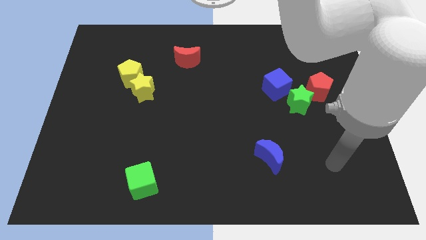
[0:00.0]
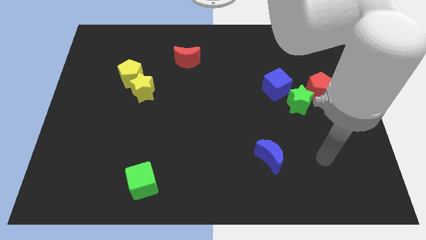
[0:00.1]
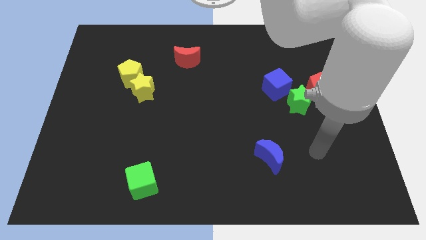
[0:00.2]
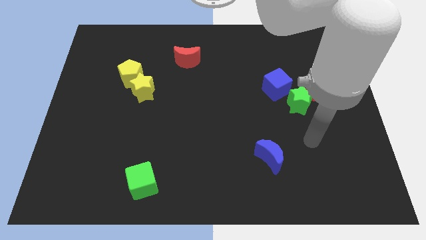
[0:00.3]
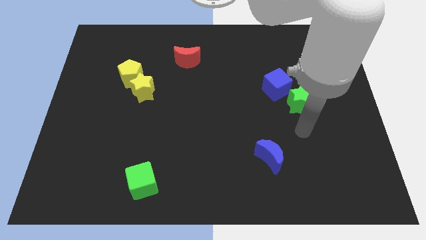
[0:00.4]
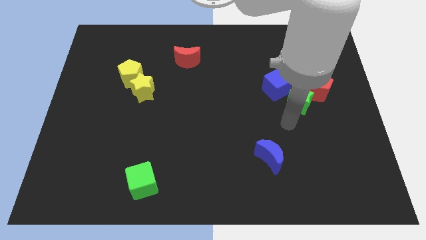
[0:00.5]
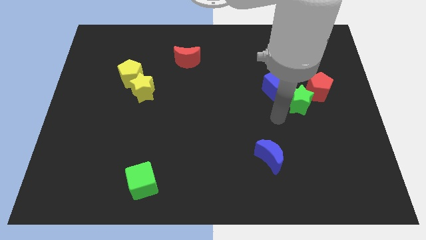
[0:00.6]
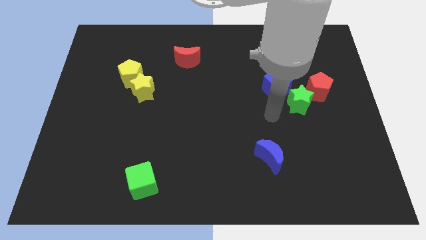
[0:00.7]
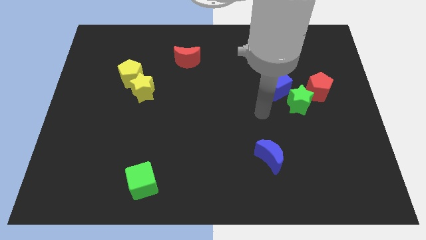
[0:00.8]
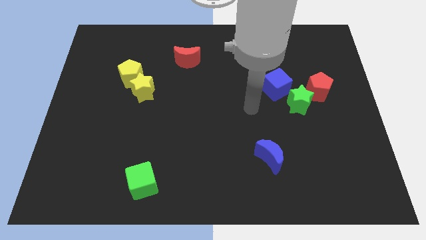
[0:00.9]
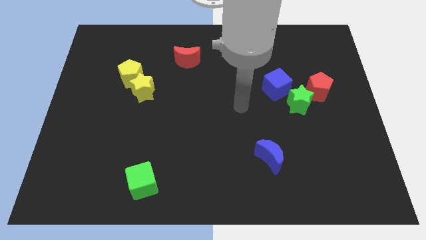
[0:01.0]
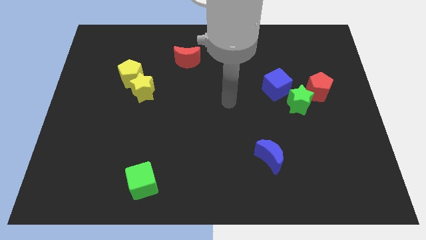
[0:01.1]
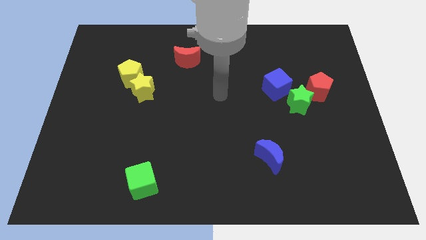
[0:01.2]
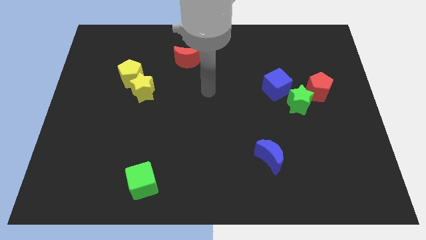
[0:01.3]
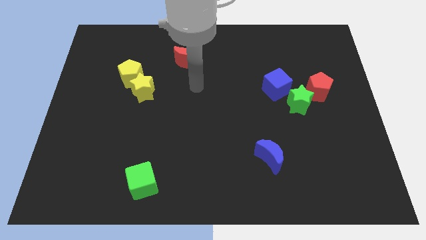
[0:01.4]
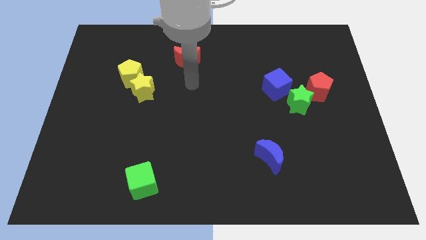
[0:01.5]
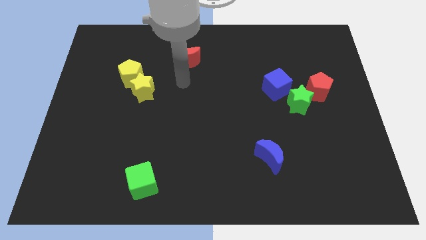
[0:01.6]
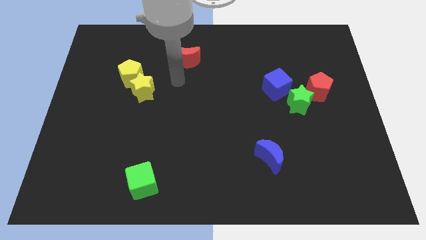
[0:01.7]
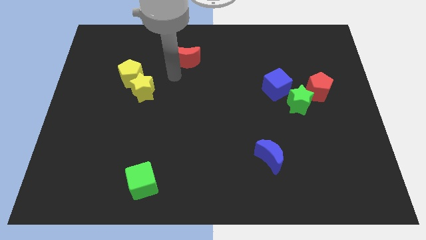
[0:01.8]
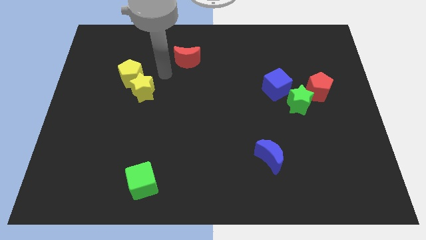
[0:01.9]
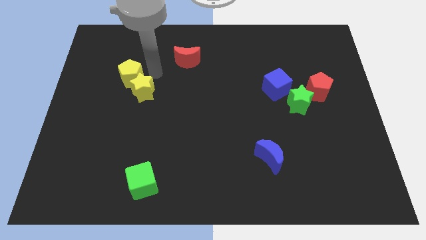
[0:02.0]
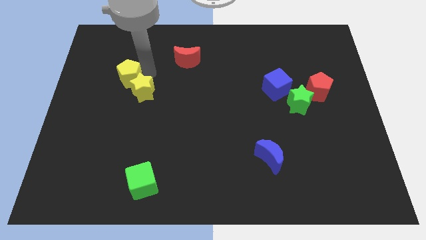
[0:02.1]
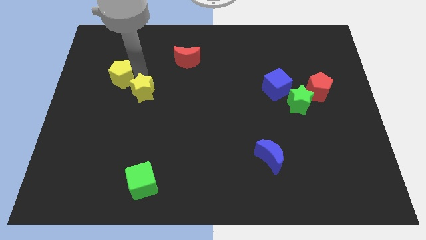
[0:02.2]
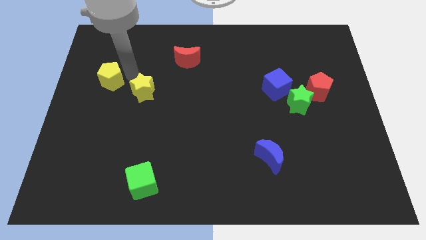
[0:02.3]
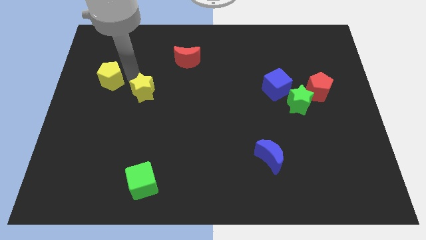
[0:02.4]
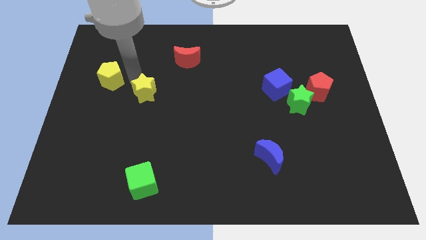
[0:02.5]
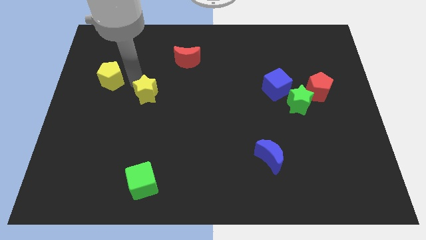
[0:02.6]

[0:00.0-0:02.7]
move the yellow star away from the yellow pentagon

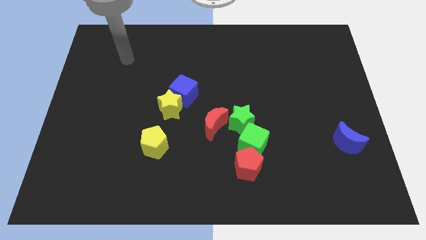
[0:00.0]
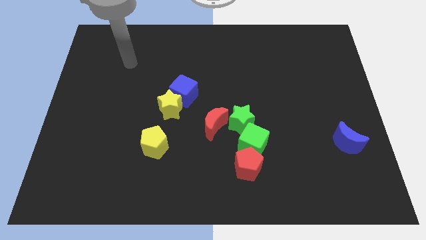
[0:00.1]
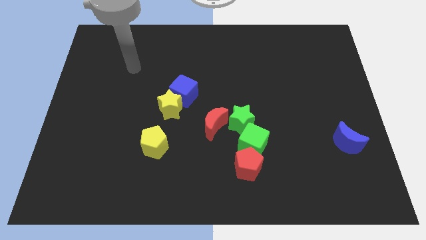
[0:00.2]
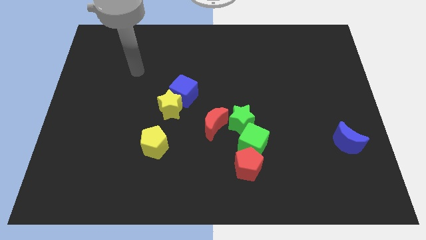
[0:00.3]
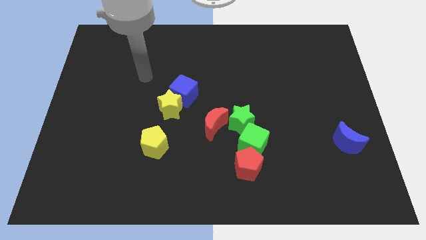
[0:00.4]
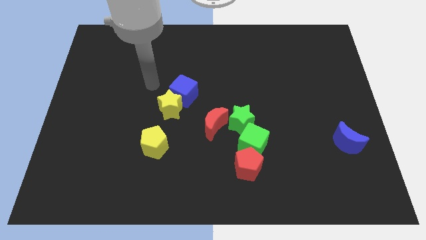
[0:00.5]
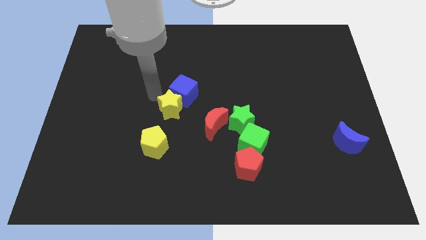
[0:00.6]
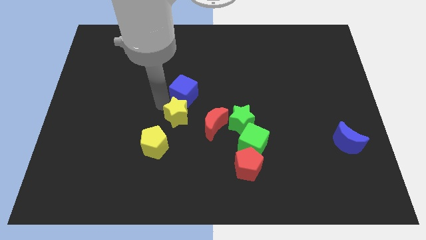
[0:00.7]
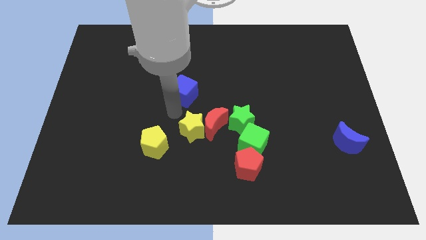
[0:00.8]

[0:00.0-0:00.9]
separate the blue cube from the yellow star

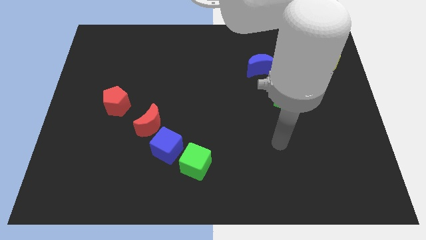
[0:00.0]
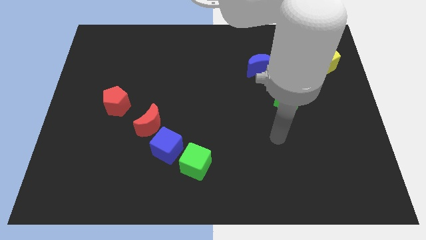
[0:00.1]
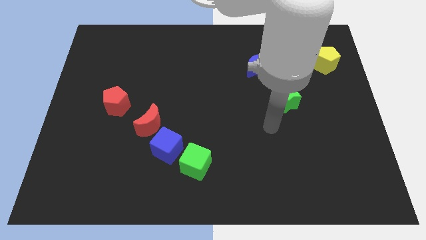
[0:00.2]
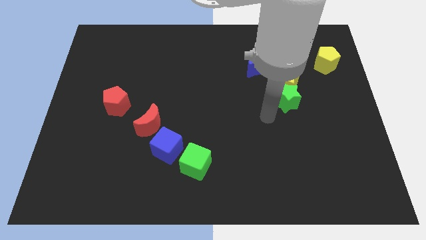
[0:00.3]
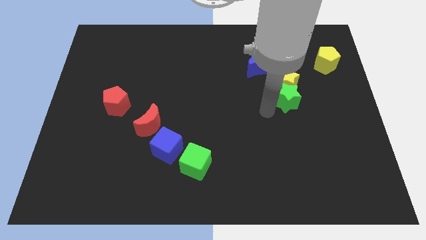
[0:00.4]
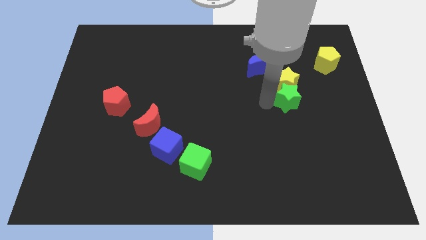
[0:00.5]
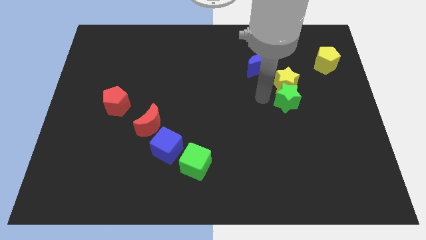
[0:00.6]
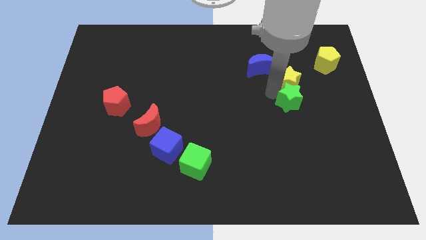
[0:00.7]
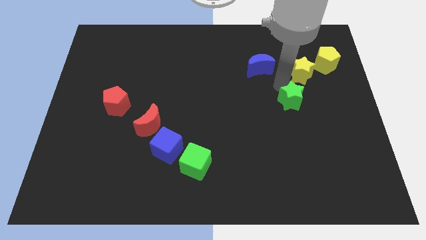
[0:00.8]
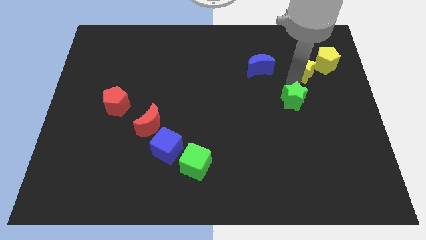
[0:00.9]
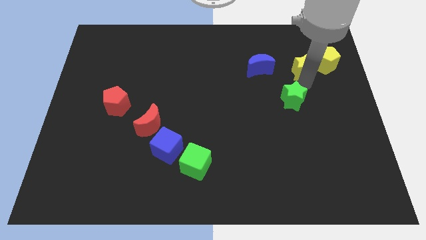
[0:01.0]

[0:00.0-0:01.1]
pull the green star apart from the yellow star

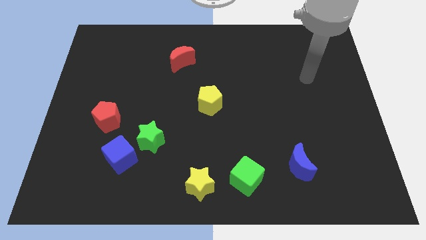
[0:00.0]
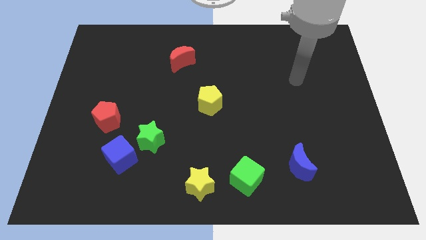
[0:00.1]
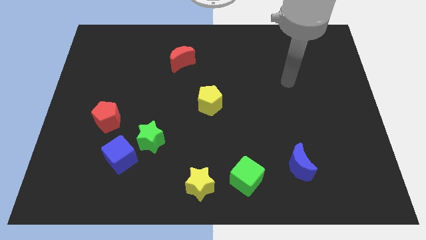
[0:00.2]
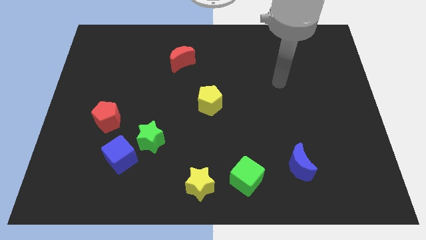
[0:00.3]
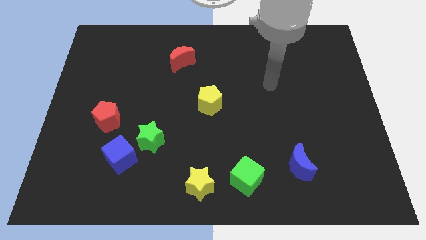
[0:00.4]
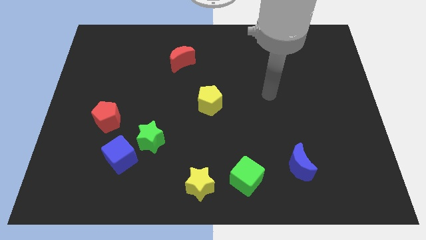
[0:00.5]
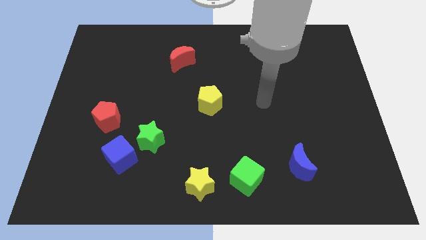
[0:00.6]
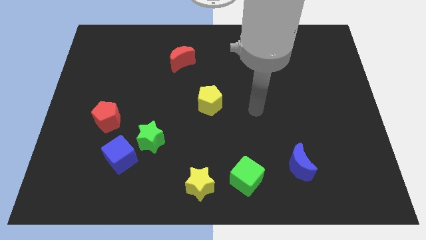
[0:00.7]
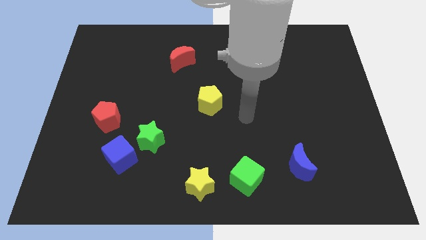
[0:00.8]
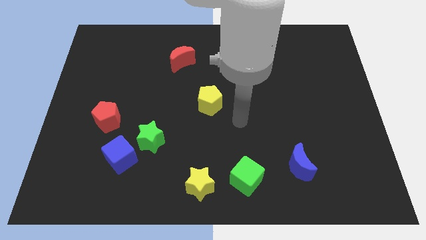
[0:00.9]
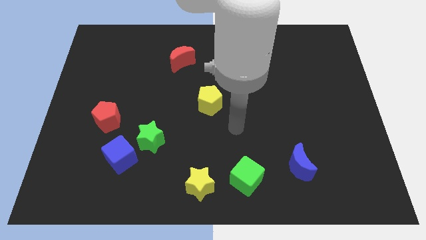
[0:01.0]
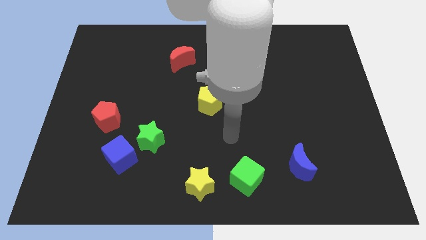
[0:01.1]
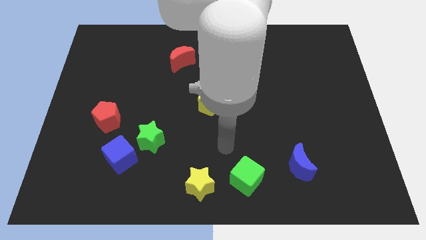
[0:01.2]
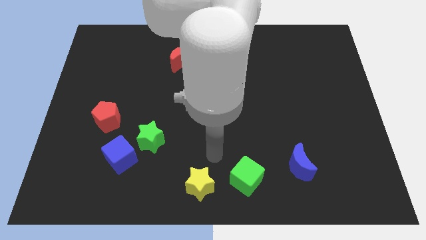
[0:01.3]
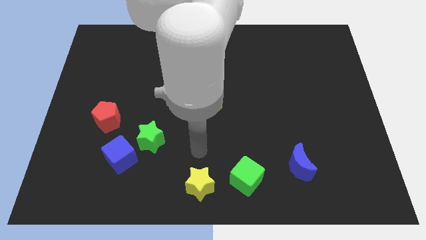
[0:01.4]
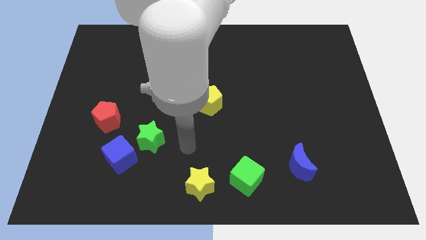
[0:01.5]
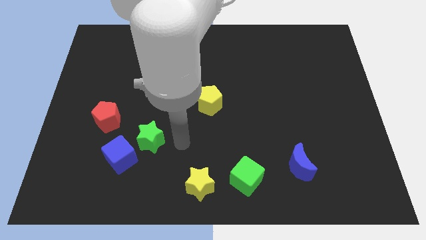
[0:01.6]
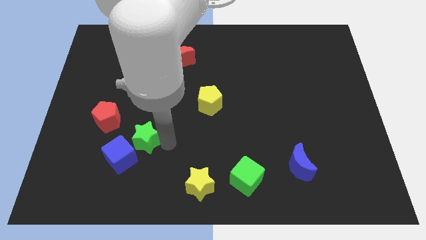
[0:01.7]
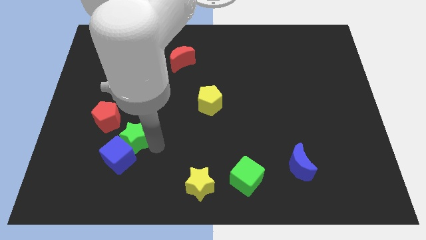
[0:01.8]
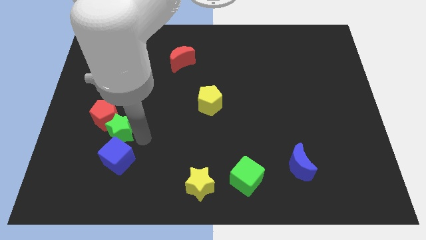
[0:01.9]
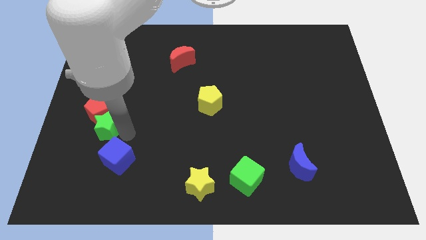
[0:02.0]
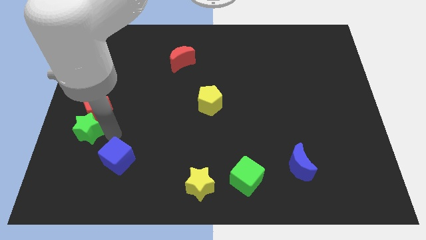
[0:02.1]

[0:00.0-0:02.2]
separate the blue cube from the green star

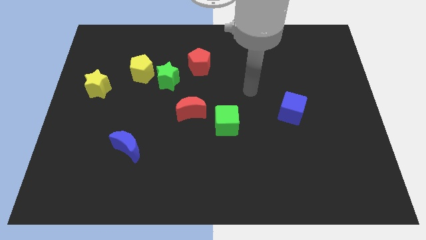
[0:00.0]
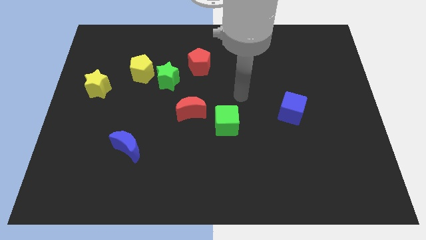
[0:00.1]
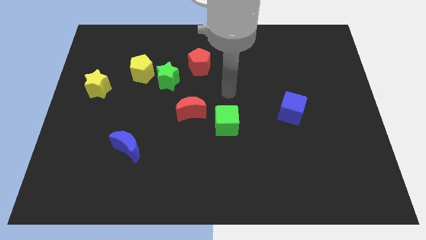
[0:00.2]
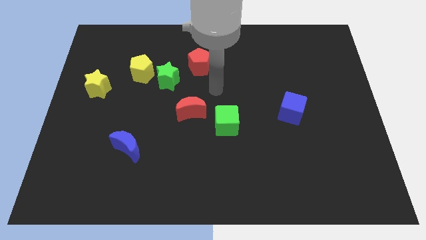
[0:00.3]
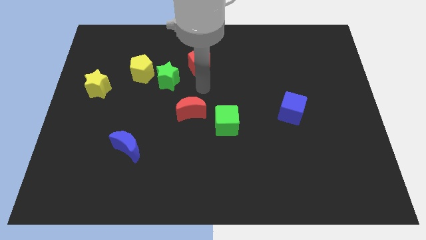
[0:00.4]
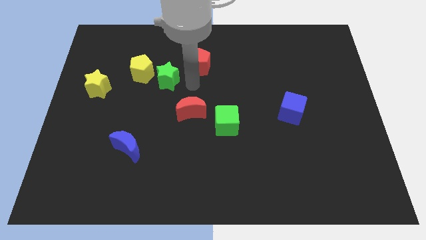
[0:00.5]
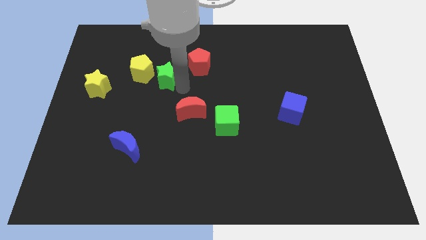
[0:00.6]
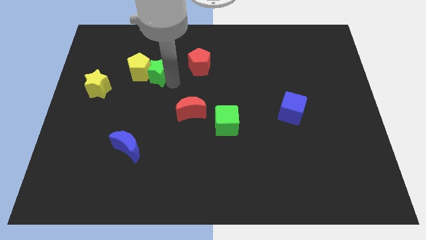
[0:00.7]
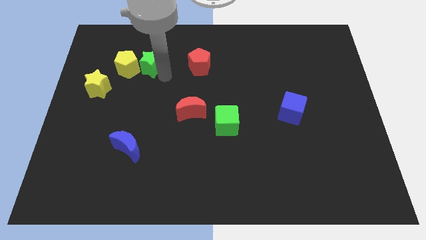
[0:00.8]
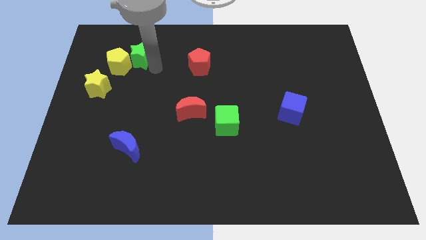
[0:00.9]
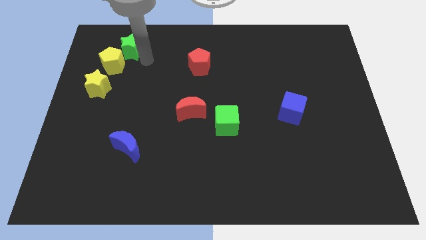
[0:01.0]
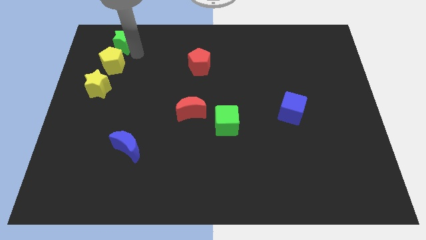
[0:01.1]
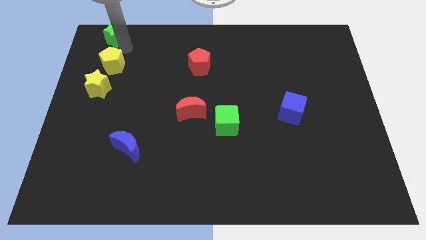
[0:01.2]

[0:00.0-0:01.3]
pull the yellow pentagon apart from the green star

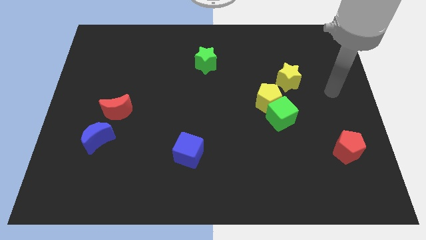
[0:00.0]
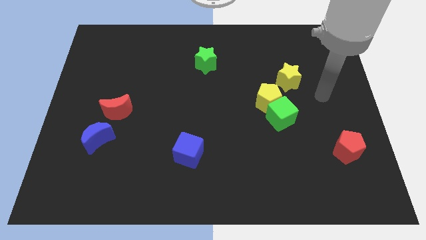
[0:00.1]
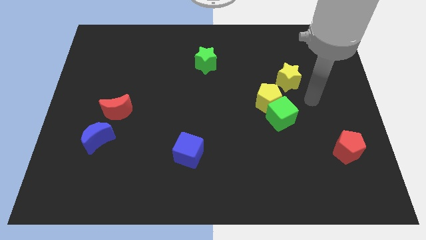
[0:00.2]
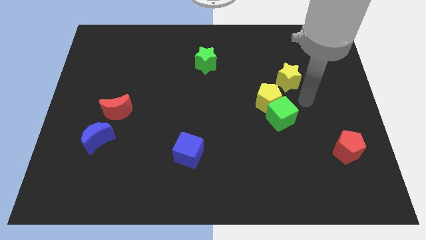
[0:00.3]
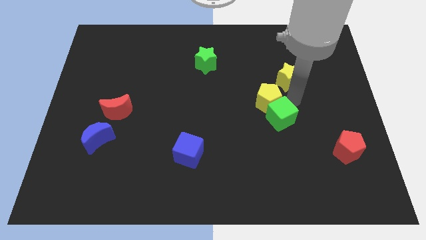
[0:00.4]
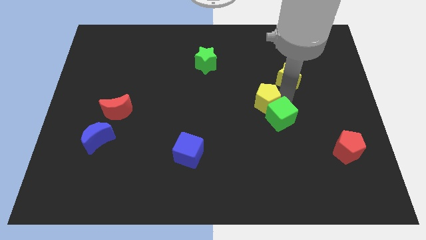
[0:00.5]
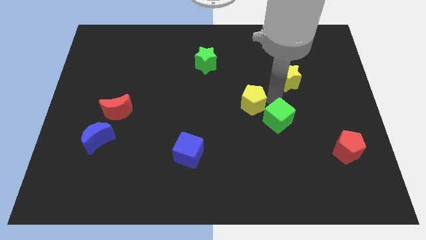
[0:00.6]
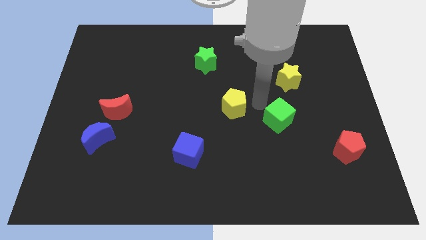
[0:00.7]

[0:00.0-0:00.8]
separate the green cube from the yellow pentagon

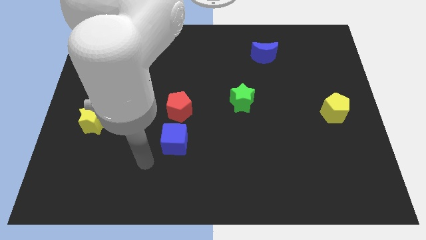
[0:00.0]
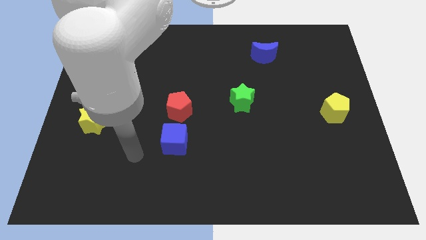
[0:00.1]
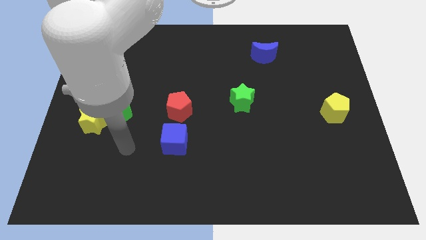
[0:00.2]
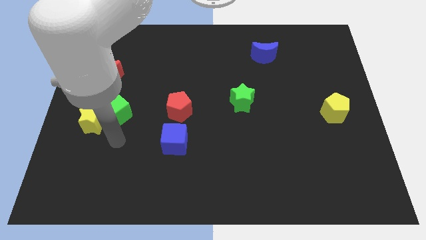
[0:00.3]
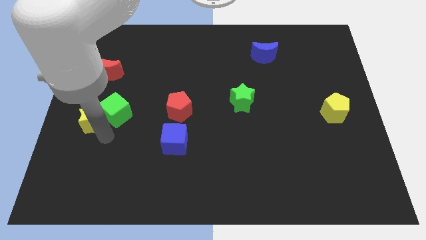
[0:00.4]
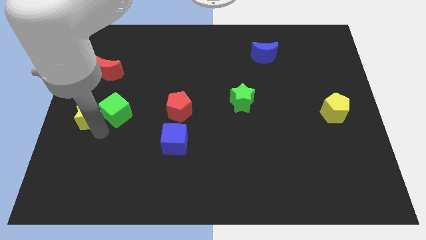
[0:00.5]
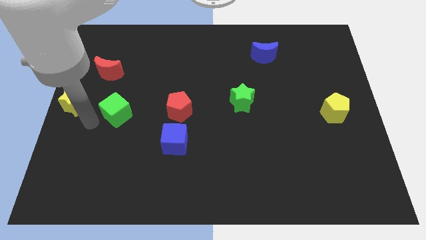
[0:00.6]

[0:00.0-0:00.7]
move the green cube away from the yellow star
